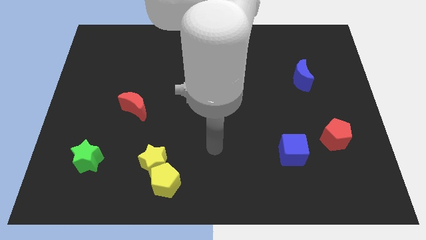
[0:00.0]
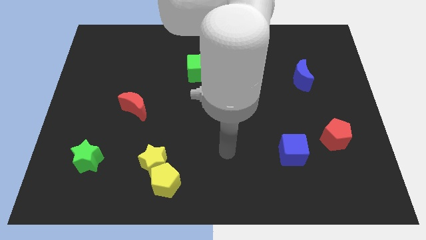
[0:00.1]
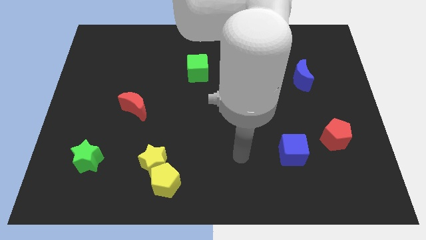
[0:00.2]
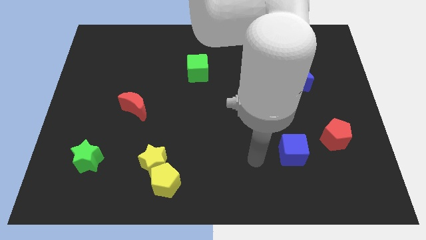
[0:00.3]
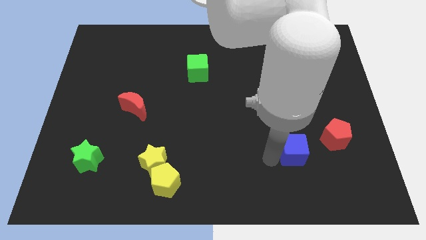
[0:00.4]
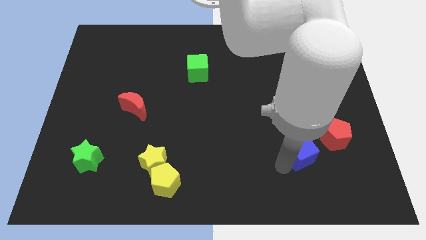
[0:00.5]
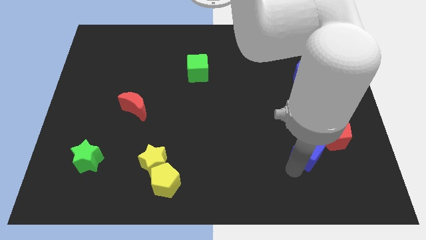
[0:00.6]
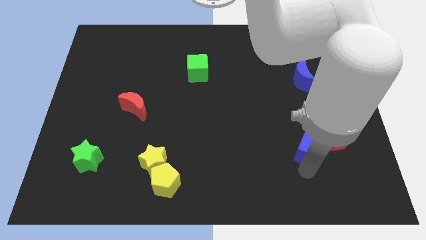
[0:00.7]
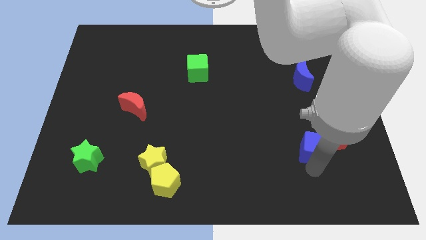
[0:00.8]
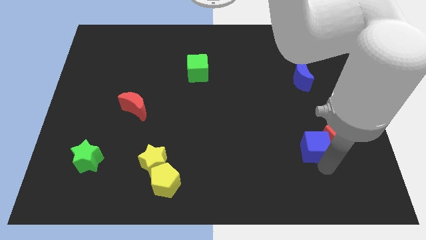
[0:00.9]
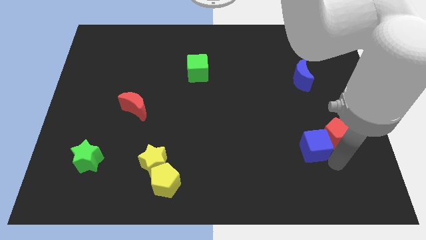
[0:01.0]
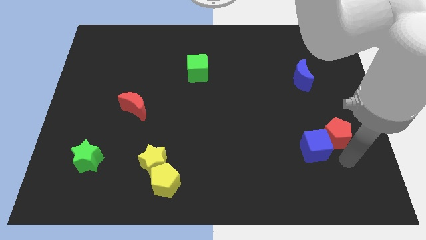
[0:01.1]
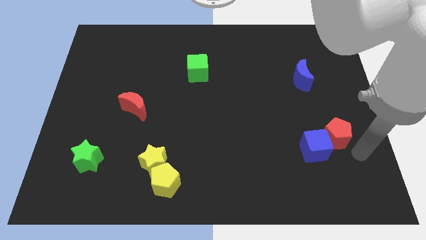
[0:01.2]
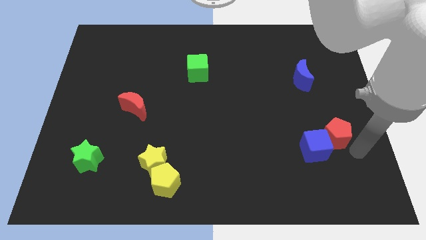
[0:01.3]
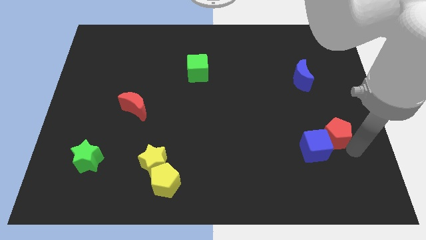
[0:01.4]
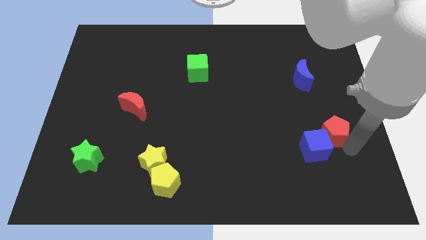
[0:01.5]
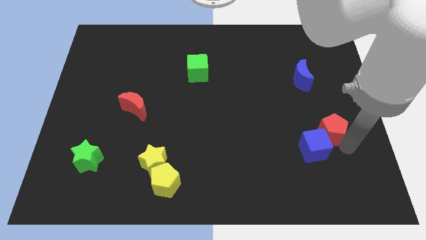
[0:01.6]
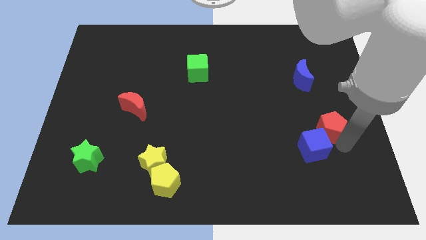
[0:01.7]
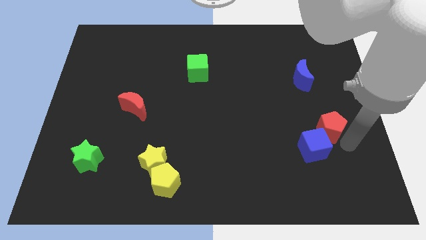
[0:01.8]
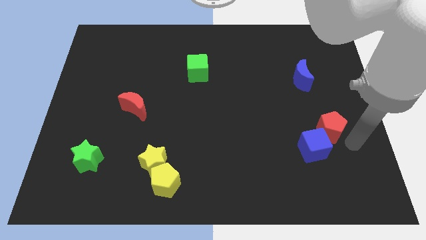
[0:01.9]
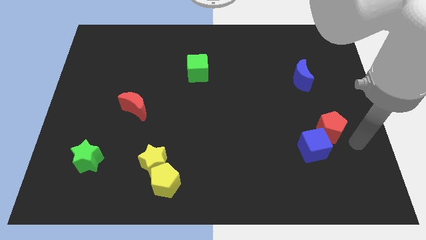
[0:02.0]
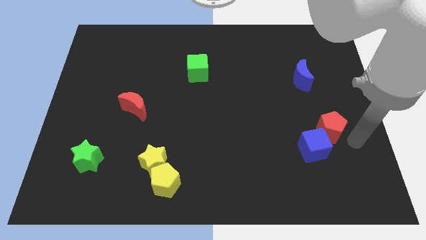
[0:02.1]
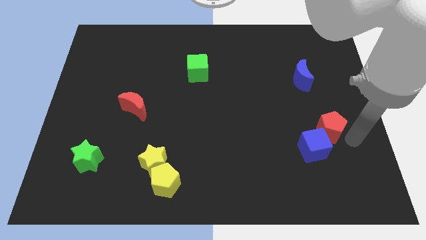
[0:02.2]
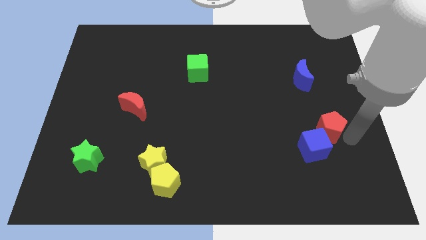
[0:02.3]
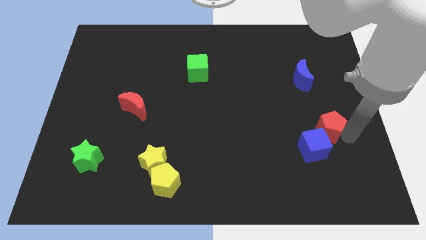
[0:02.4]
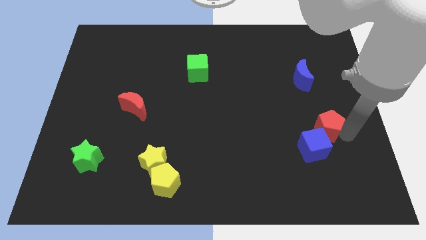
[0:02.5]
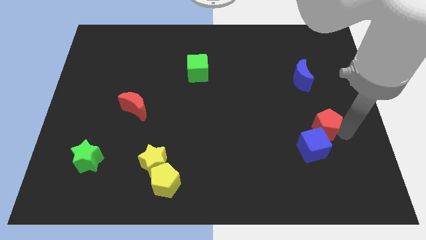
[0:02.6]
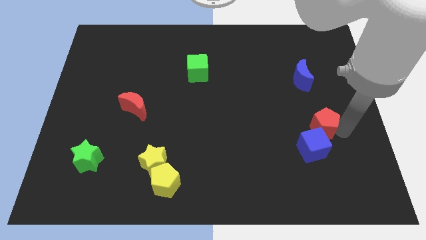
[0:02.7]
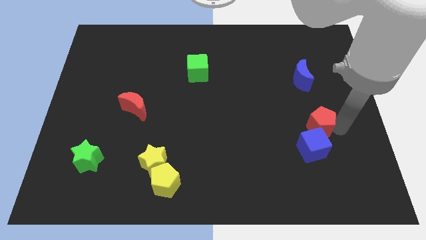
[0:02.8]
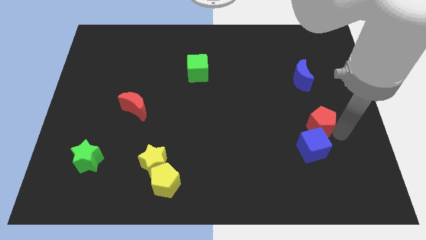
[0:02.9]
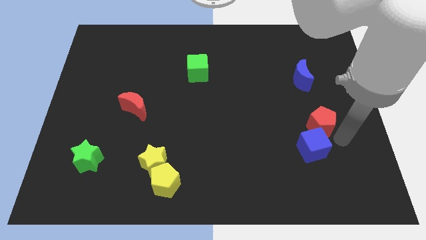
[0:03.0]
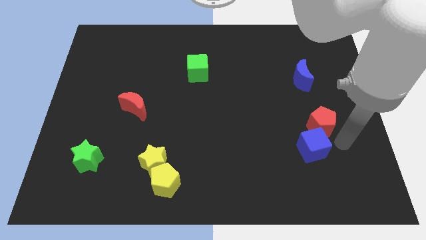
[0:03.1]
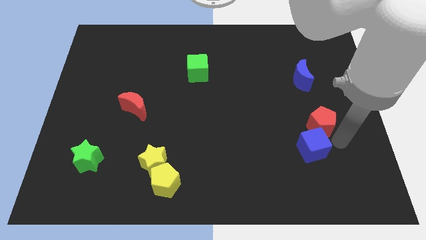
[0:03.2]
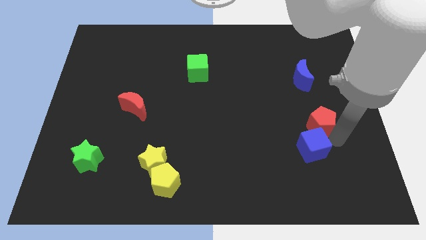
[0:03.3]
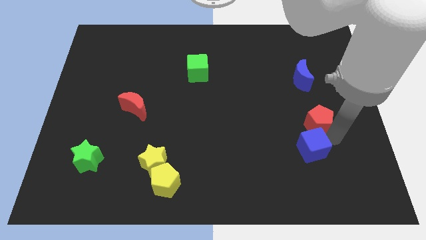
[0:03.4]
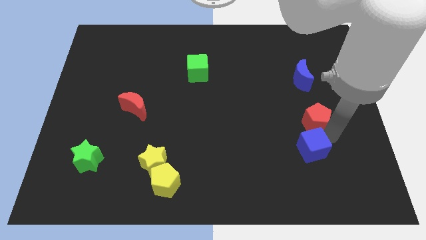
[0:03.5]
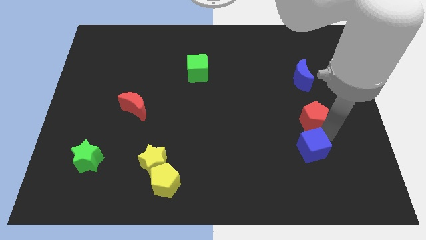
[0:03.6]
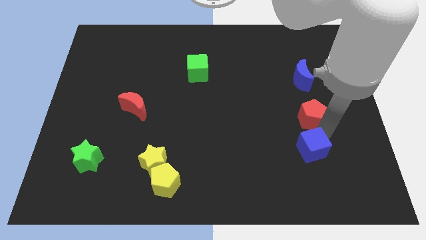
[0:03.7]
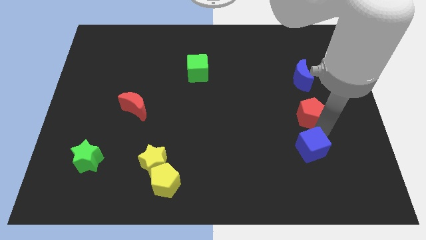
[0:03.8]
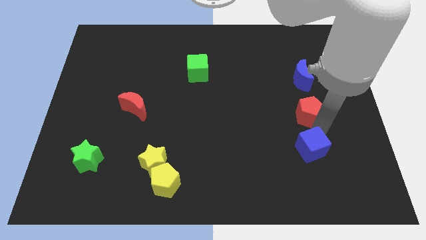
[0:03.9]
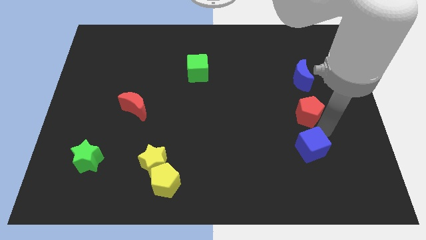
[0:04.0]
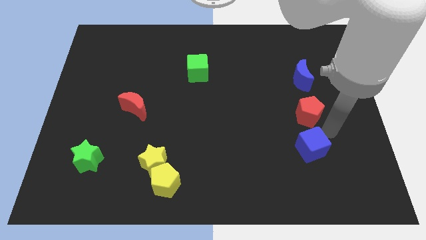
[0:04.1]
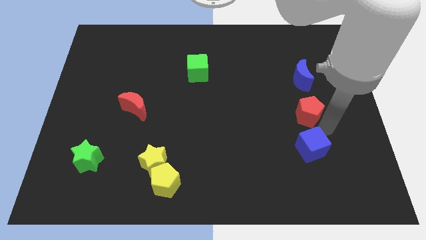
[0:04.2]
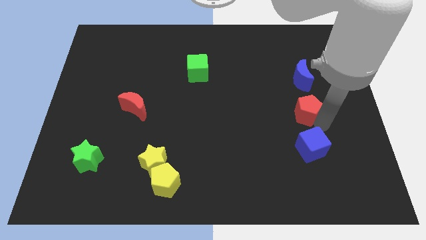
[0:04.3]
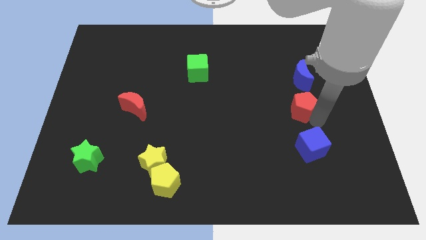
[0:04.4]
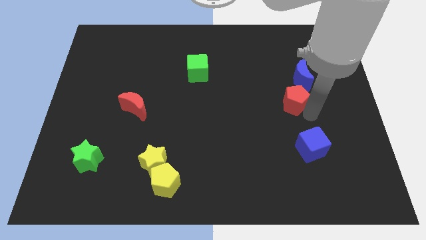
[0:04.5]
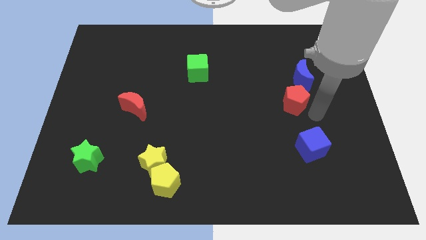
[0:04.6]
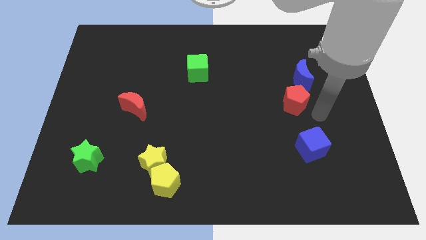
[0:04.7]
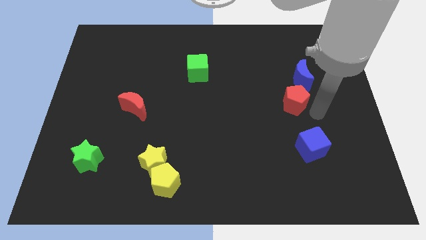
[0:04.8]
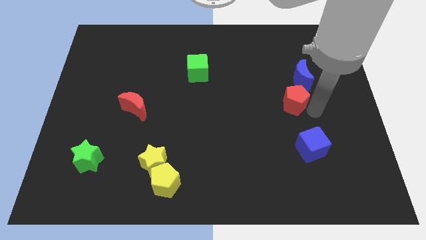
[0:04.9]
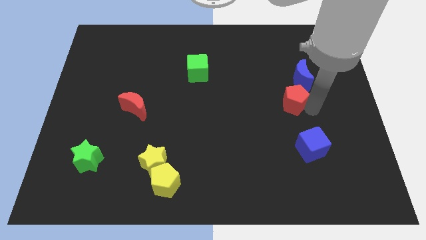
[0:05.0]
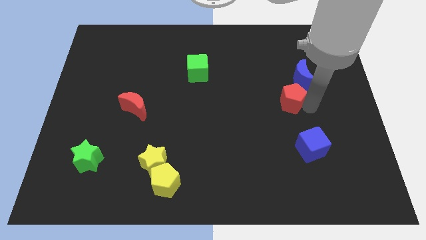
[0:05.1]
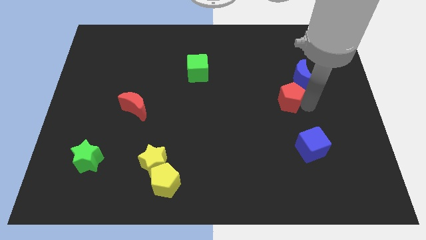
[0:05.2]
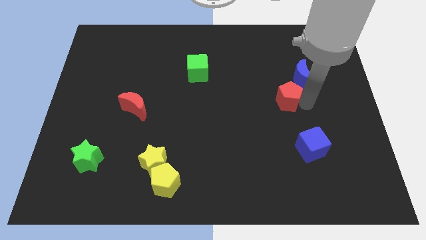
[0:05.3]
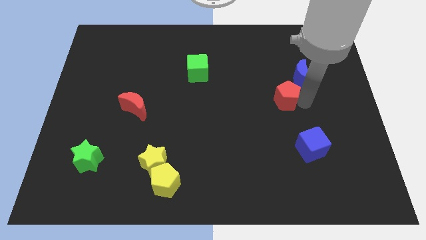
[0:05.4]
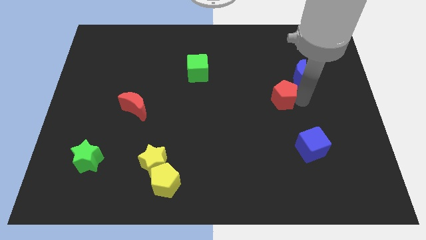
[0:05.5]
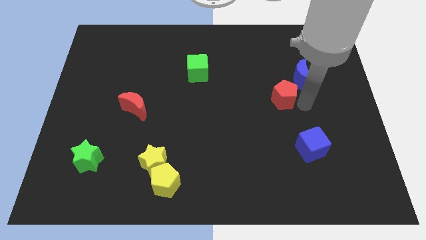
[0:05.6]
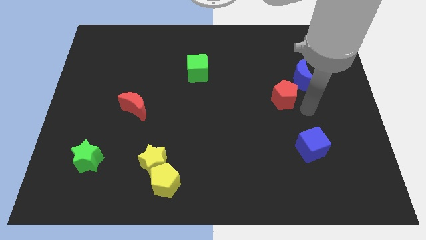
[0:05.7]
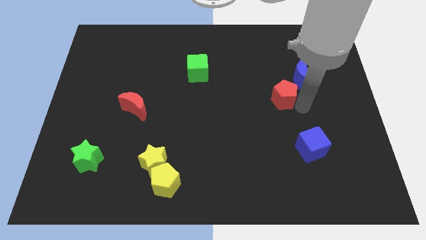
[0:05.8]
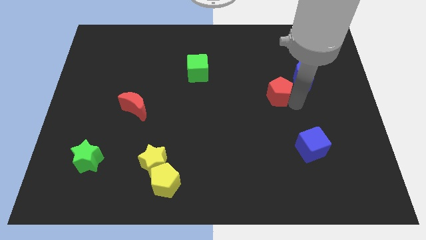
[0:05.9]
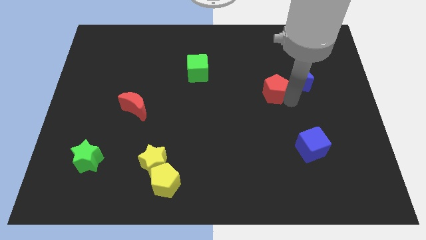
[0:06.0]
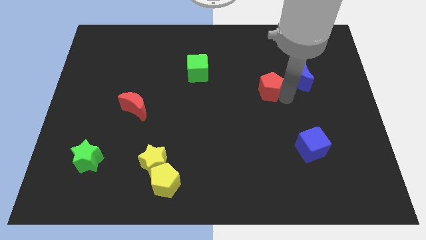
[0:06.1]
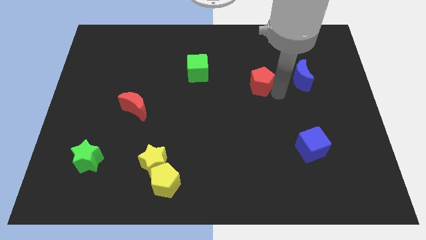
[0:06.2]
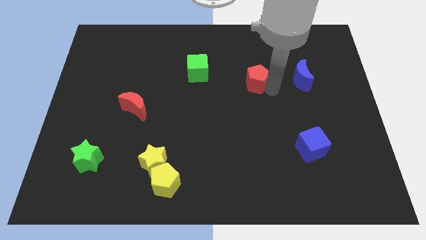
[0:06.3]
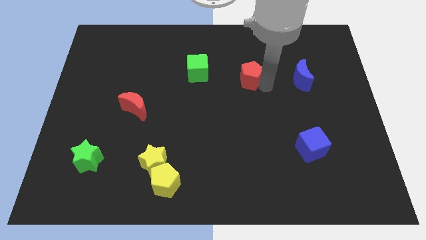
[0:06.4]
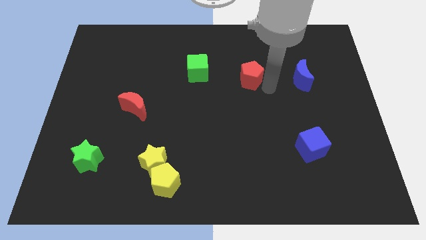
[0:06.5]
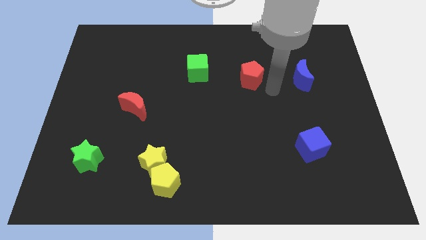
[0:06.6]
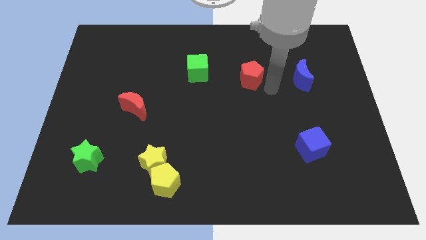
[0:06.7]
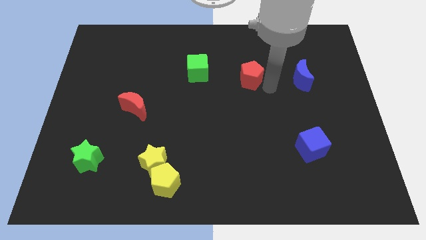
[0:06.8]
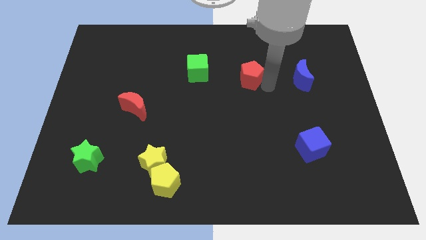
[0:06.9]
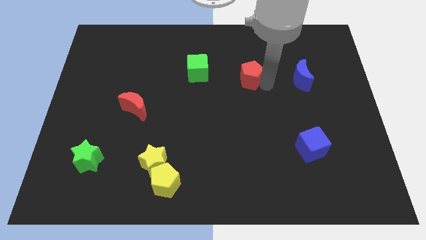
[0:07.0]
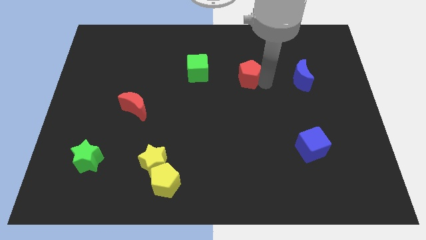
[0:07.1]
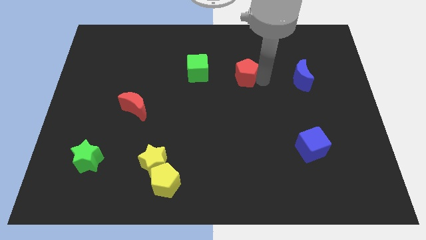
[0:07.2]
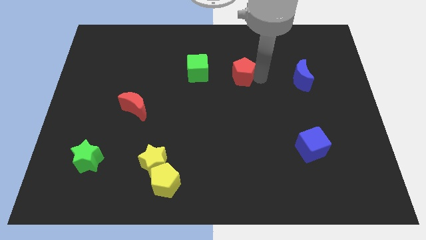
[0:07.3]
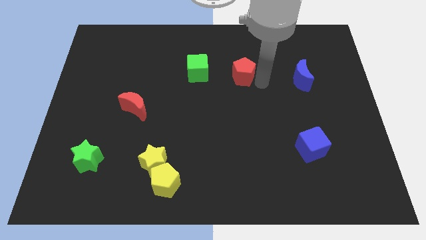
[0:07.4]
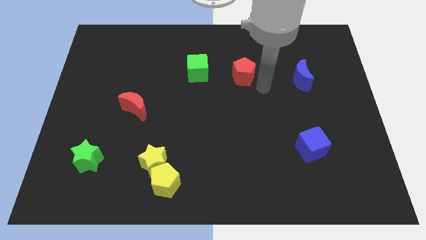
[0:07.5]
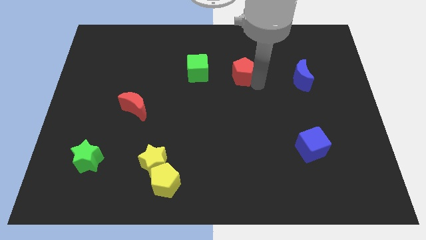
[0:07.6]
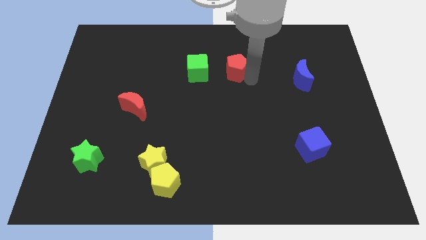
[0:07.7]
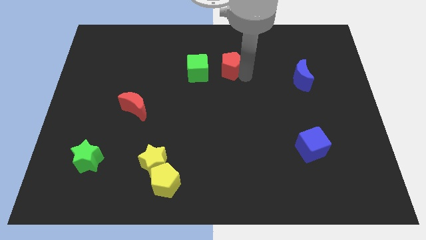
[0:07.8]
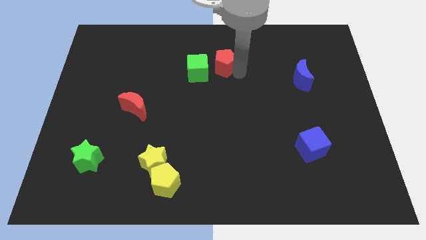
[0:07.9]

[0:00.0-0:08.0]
push the red pentagon diagonally up and to the right of the green cube
